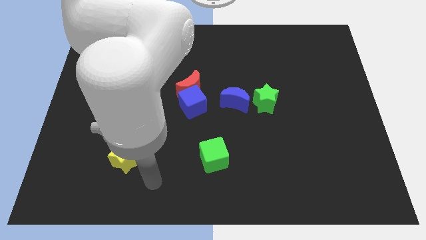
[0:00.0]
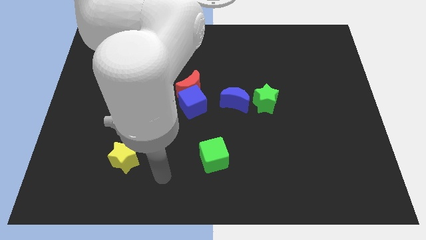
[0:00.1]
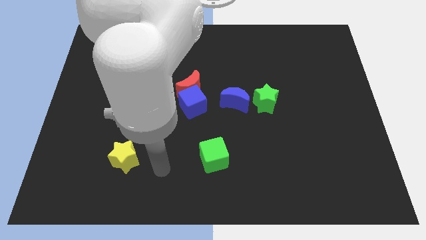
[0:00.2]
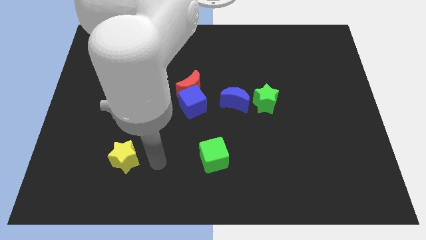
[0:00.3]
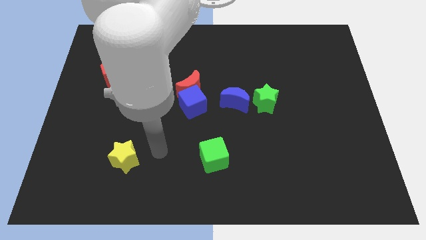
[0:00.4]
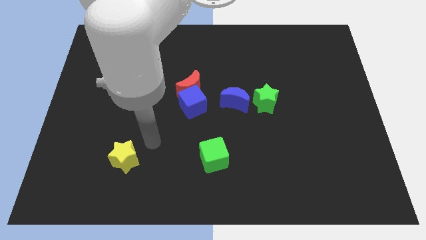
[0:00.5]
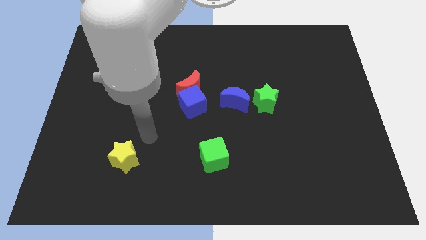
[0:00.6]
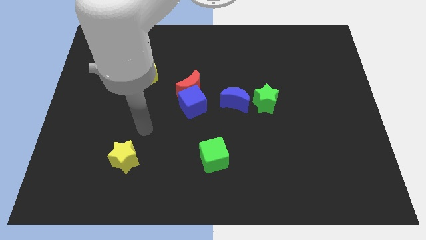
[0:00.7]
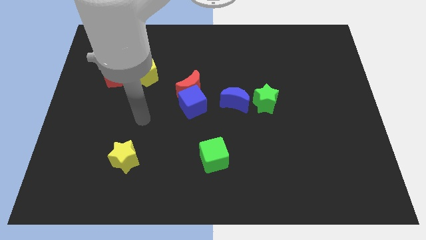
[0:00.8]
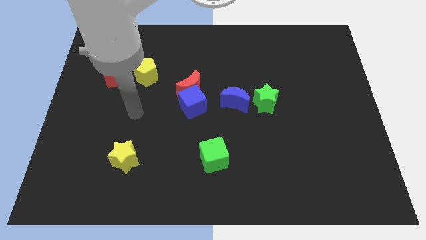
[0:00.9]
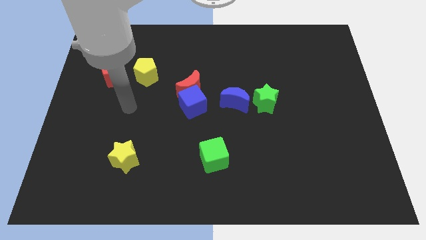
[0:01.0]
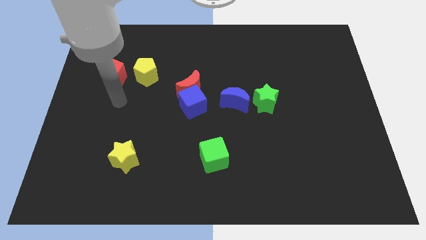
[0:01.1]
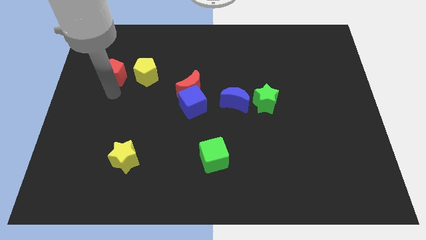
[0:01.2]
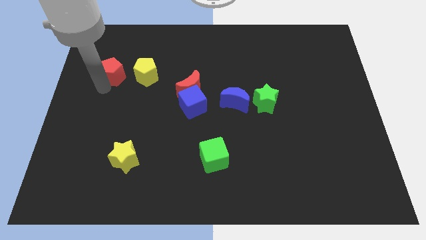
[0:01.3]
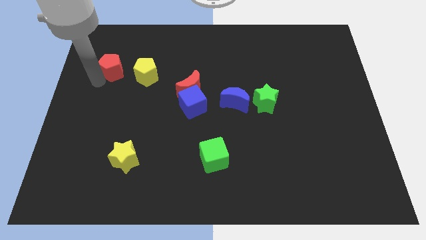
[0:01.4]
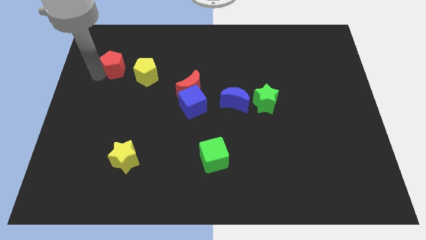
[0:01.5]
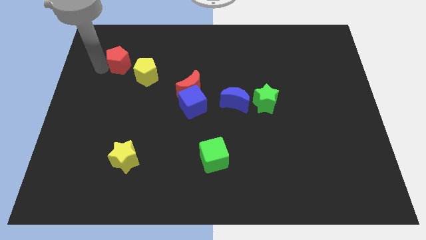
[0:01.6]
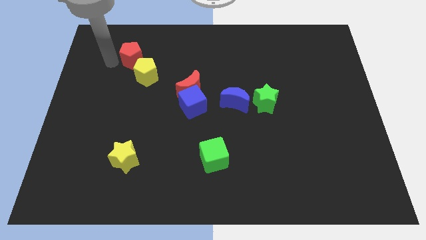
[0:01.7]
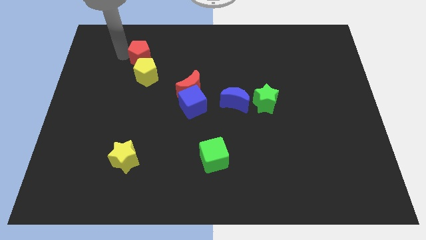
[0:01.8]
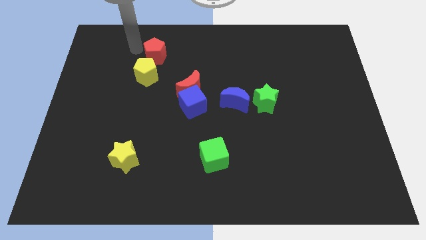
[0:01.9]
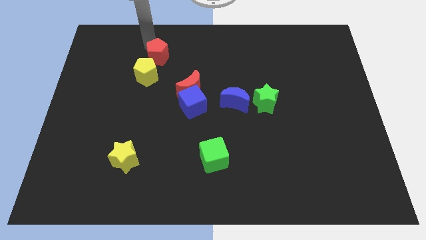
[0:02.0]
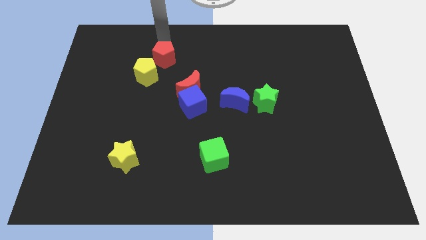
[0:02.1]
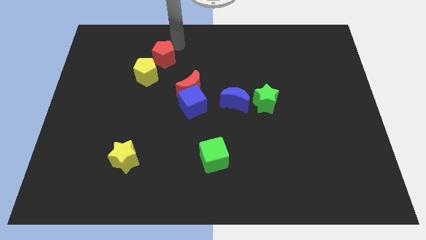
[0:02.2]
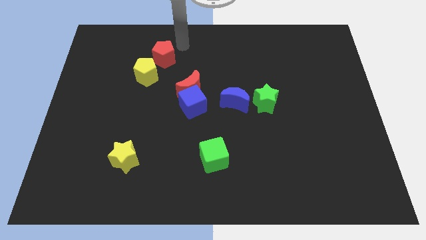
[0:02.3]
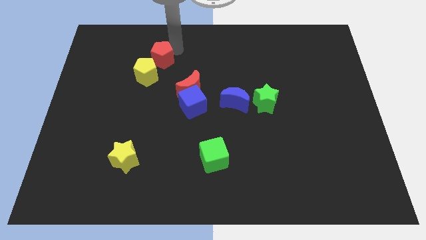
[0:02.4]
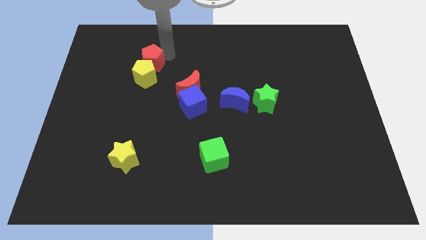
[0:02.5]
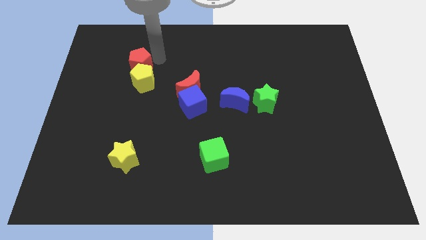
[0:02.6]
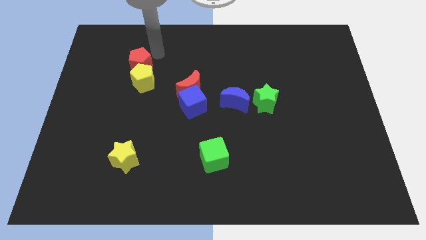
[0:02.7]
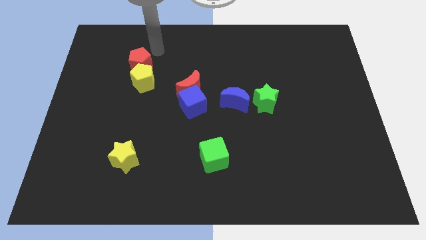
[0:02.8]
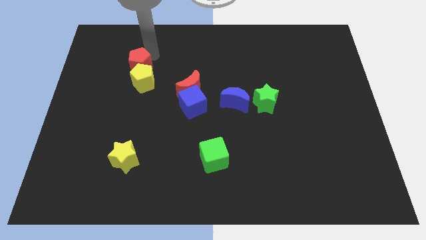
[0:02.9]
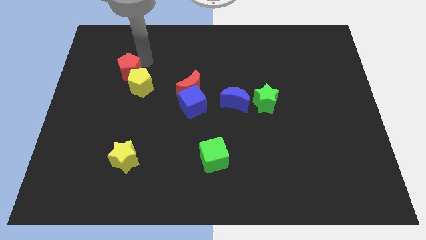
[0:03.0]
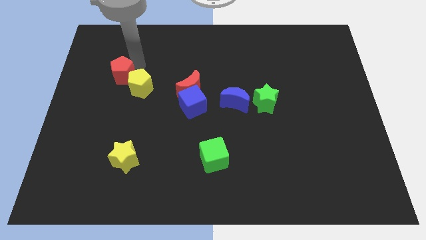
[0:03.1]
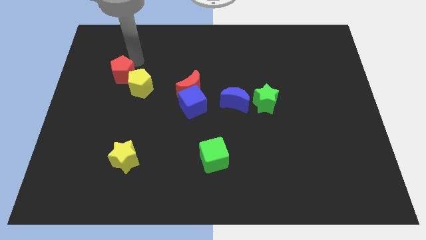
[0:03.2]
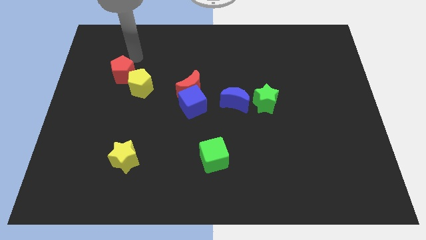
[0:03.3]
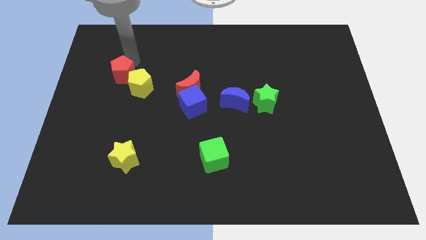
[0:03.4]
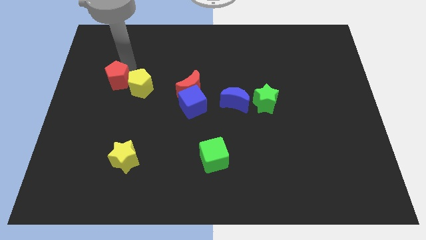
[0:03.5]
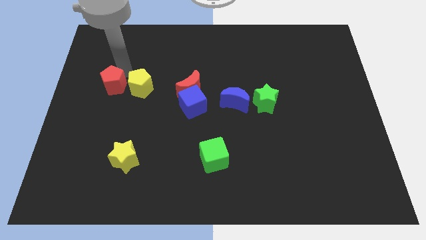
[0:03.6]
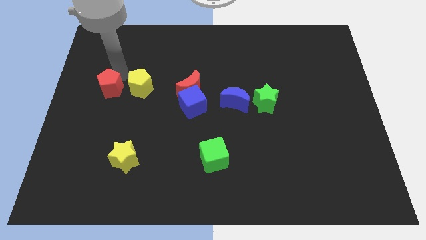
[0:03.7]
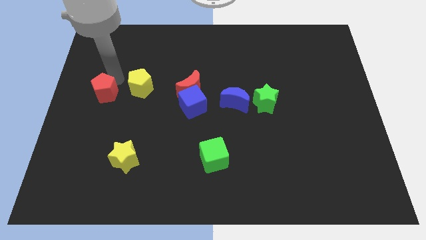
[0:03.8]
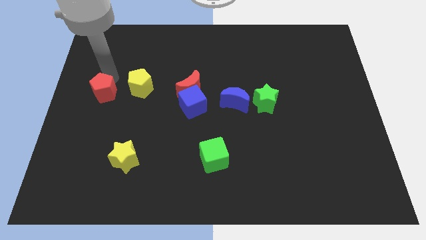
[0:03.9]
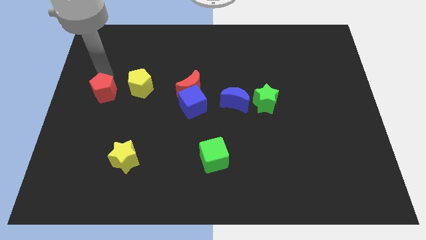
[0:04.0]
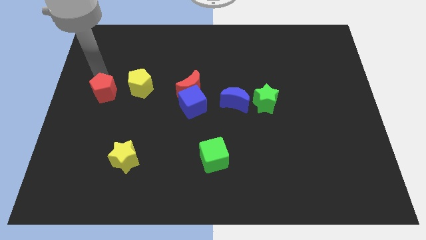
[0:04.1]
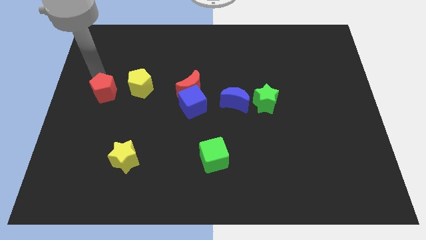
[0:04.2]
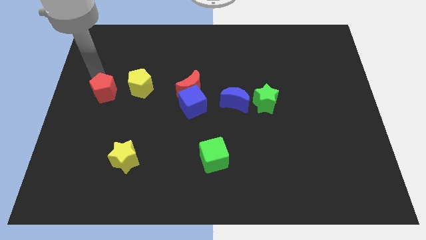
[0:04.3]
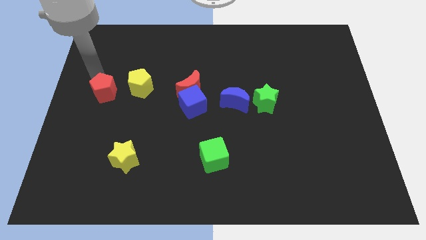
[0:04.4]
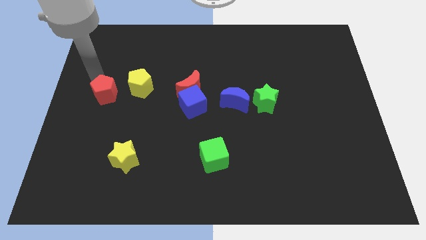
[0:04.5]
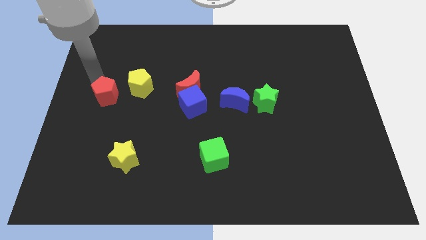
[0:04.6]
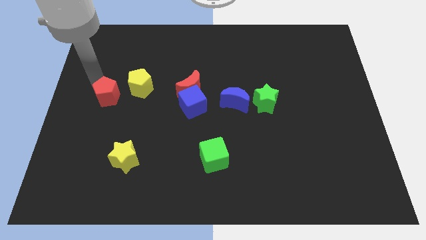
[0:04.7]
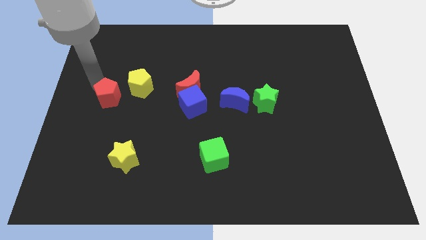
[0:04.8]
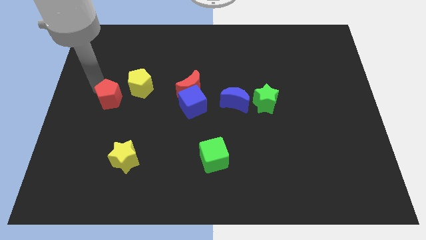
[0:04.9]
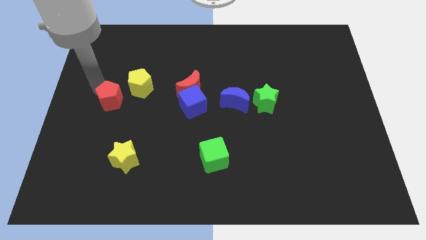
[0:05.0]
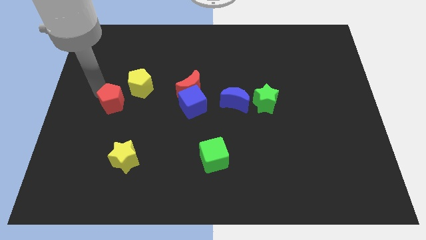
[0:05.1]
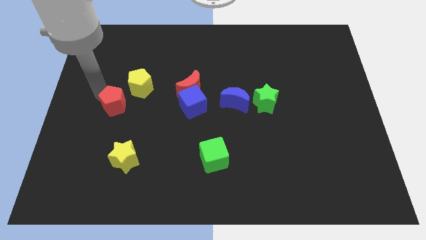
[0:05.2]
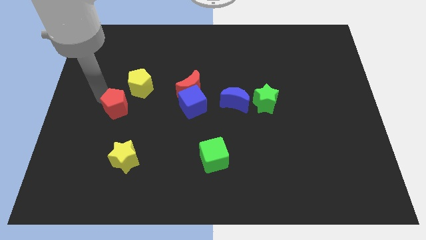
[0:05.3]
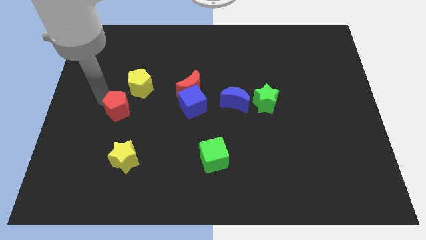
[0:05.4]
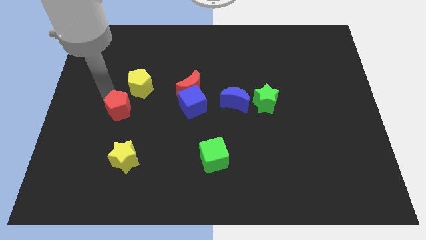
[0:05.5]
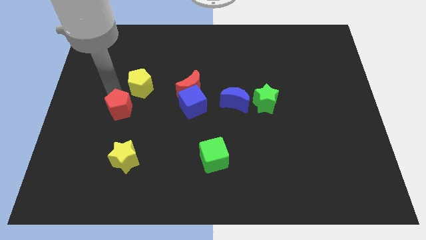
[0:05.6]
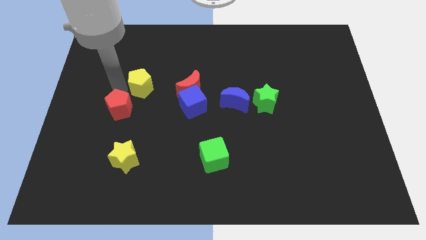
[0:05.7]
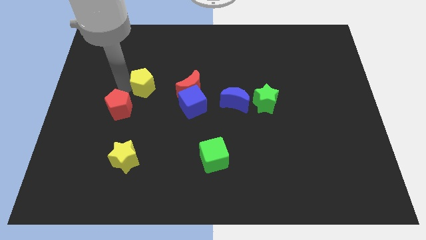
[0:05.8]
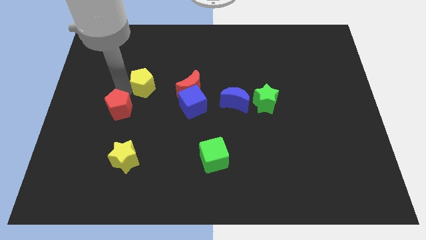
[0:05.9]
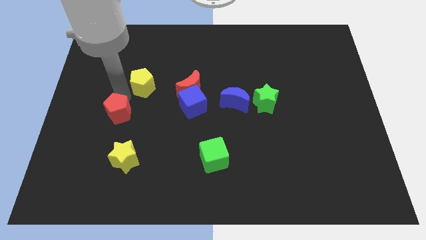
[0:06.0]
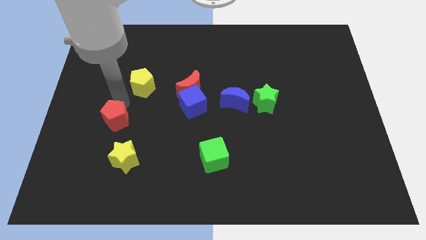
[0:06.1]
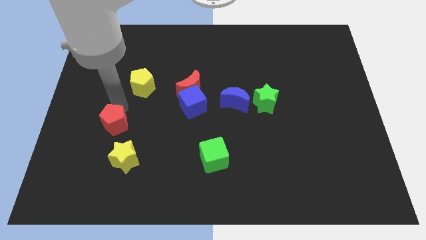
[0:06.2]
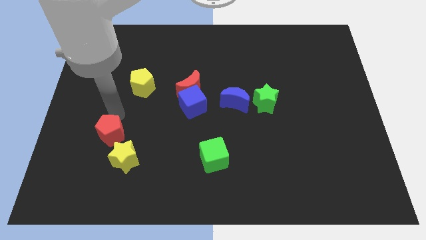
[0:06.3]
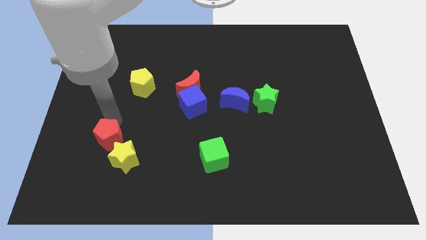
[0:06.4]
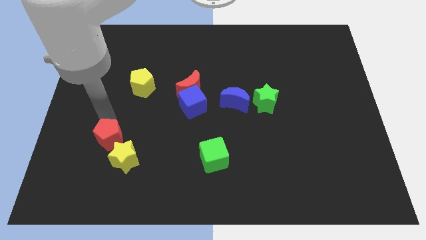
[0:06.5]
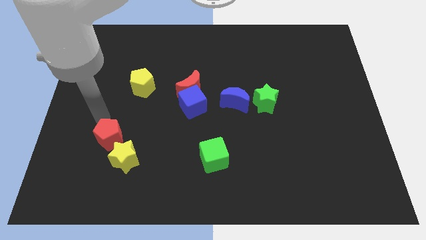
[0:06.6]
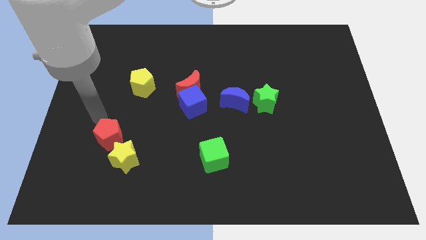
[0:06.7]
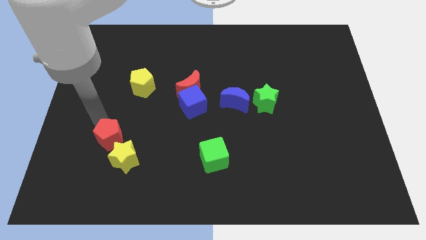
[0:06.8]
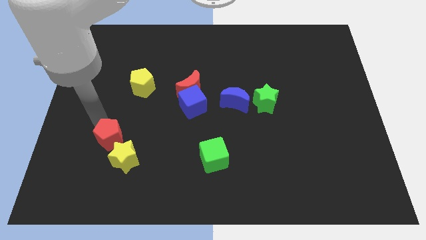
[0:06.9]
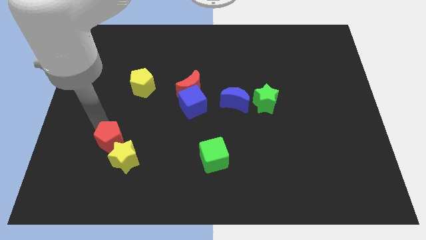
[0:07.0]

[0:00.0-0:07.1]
put the red pentagon close to the yellow star
